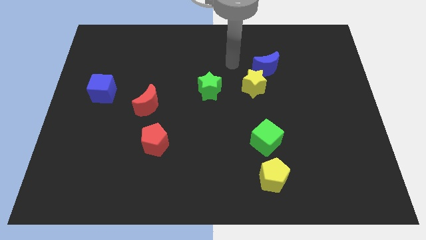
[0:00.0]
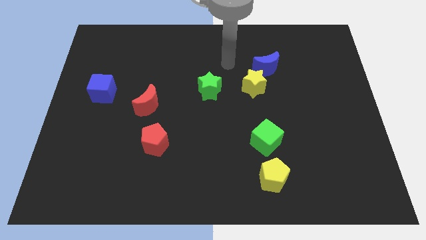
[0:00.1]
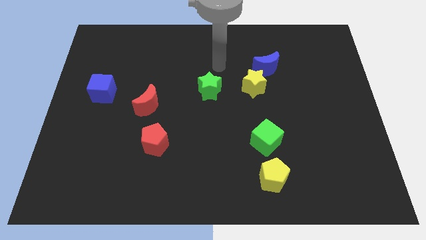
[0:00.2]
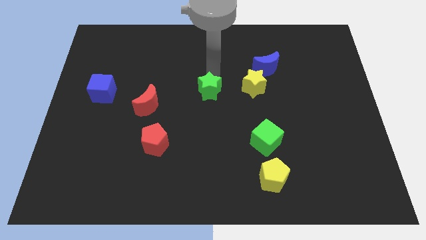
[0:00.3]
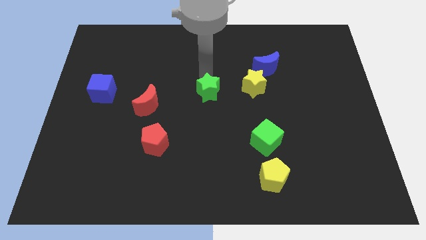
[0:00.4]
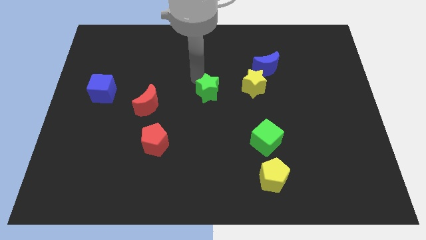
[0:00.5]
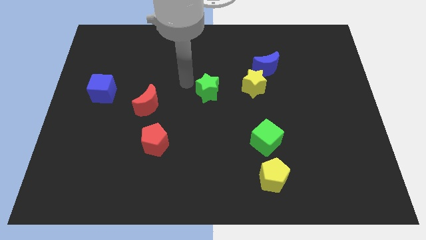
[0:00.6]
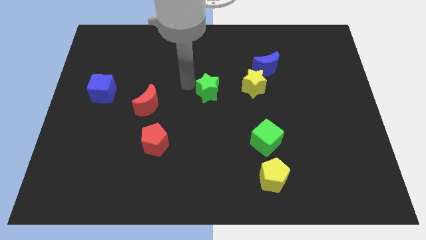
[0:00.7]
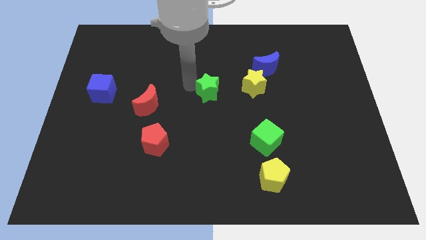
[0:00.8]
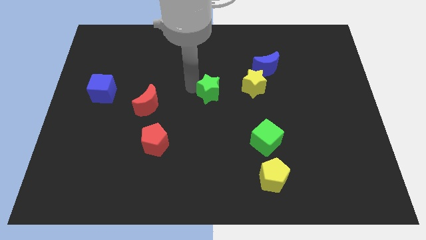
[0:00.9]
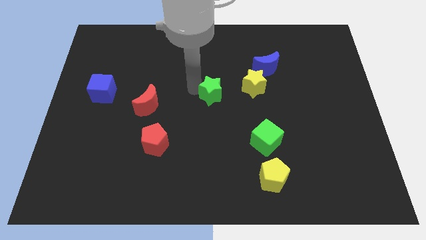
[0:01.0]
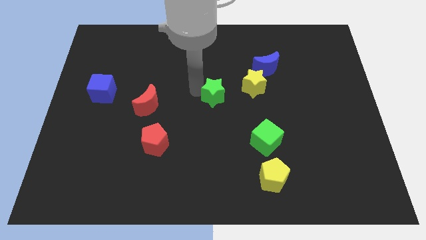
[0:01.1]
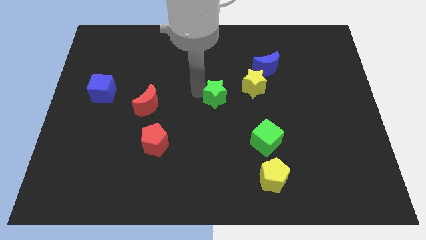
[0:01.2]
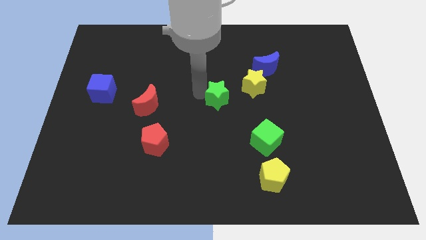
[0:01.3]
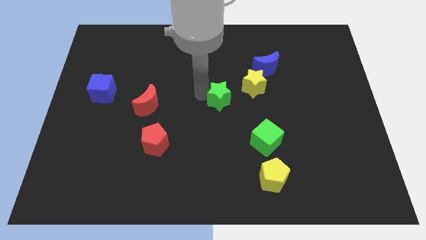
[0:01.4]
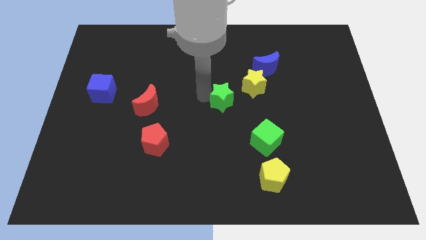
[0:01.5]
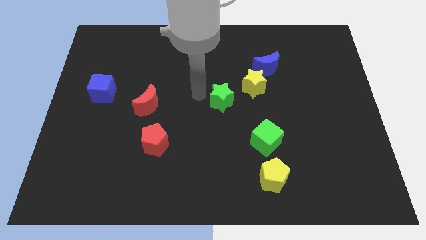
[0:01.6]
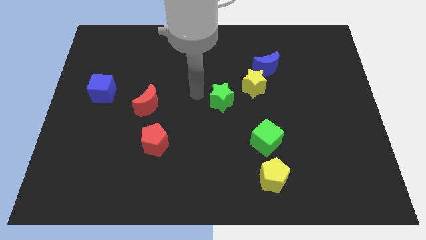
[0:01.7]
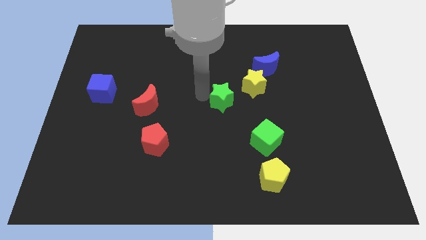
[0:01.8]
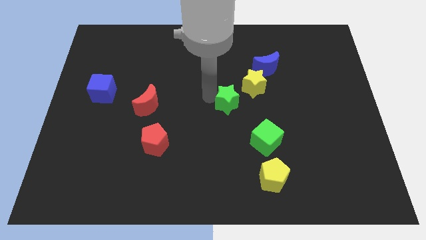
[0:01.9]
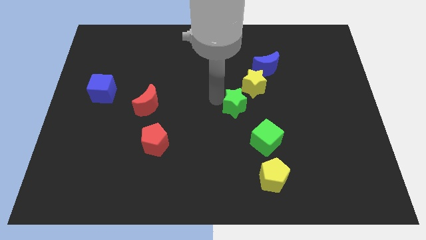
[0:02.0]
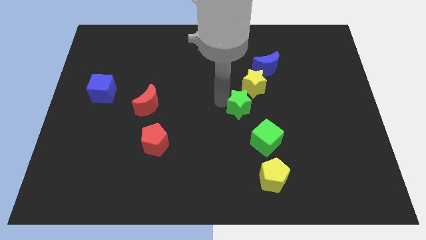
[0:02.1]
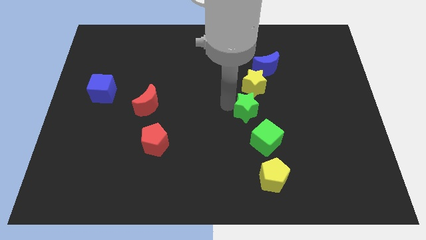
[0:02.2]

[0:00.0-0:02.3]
move the green star to the right slightly

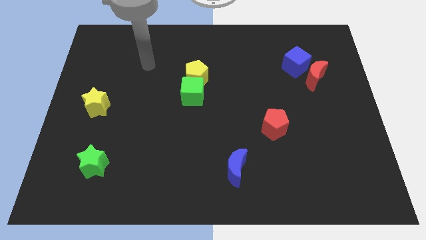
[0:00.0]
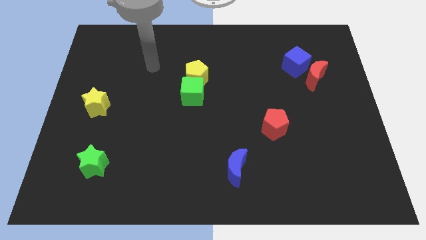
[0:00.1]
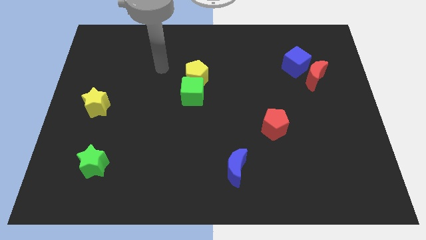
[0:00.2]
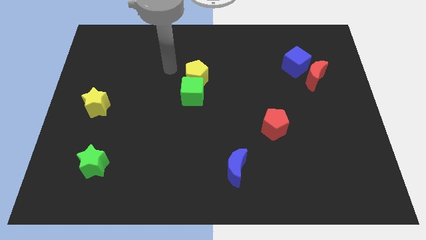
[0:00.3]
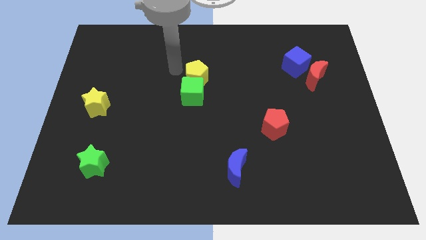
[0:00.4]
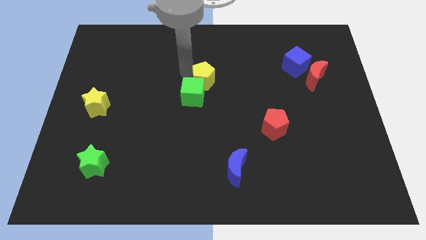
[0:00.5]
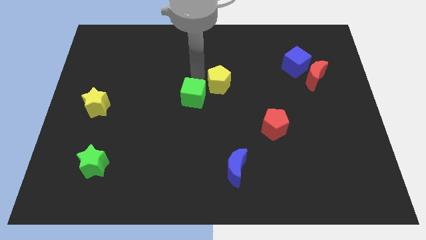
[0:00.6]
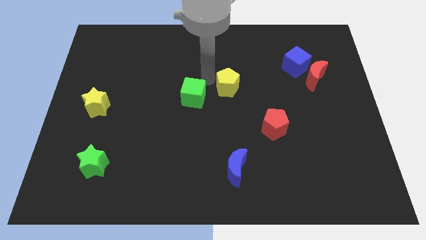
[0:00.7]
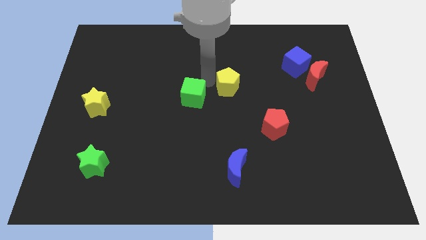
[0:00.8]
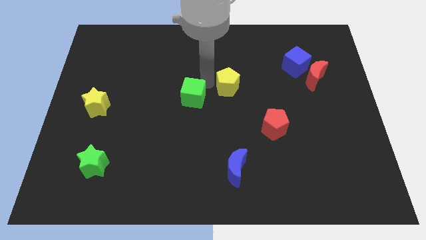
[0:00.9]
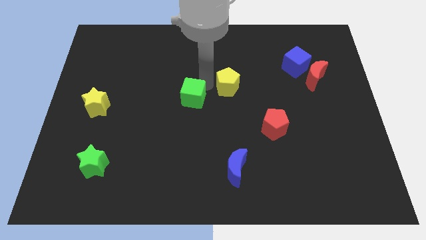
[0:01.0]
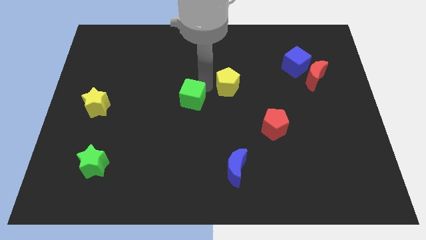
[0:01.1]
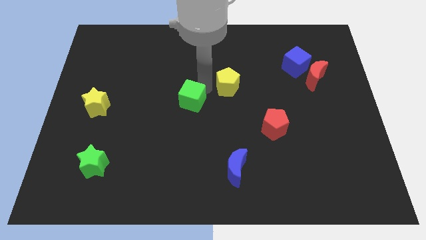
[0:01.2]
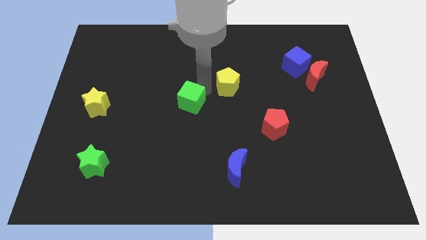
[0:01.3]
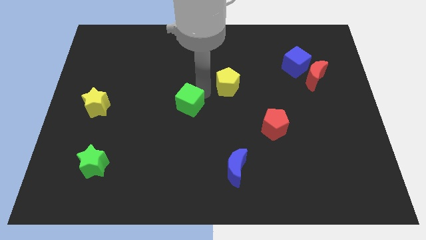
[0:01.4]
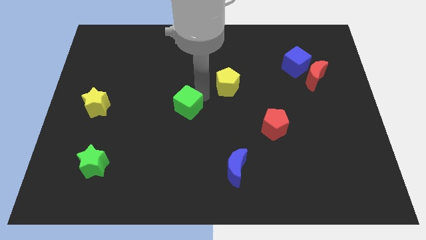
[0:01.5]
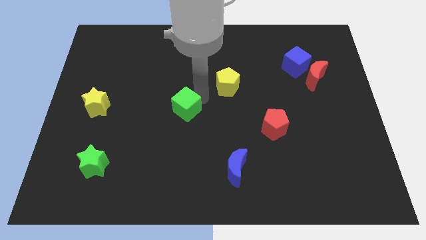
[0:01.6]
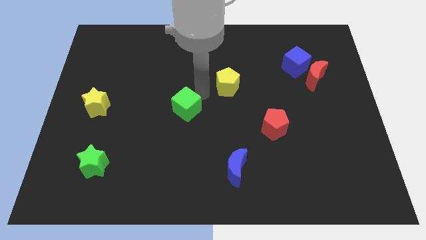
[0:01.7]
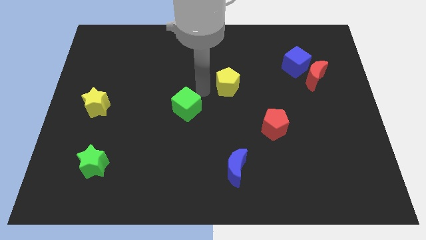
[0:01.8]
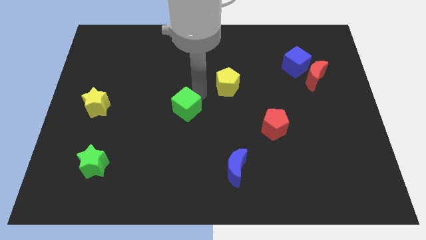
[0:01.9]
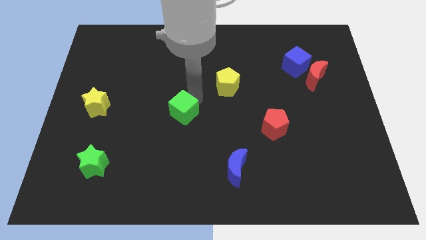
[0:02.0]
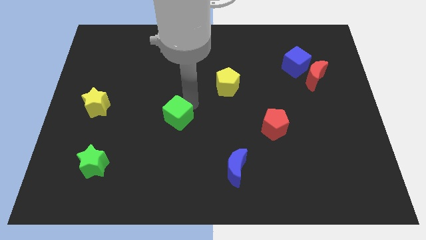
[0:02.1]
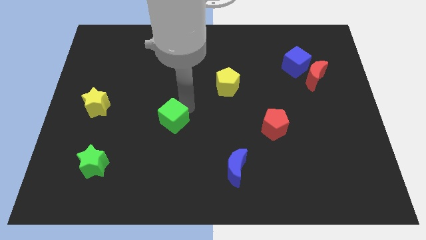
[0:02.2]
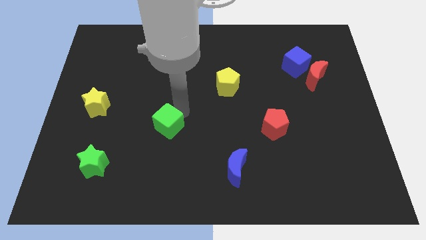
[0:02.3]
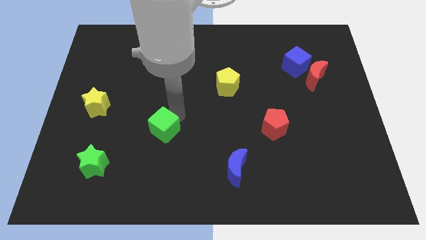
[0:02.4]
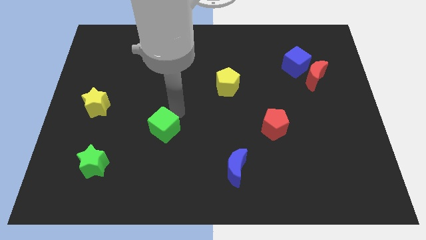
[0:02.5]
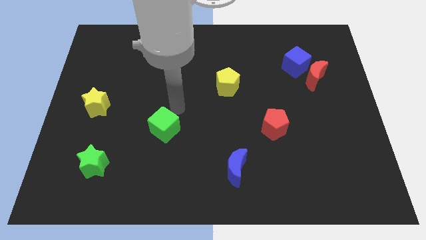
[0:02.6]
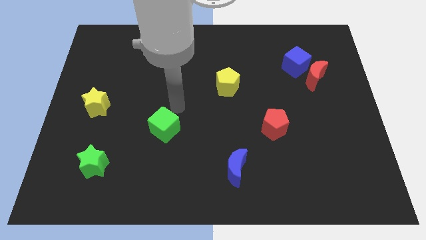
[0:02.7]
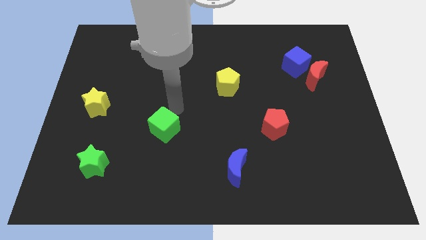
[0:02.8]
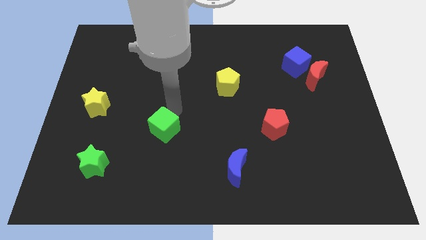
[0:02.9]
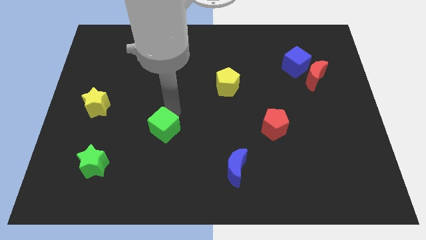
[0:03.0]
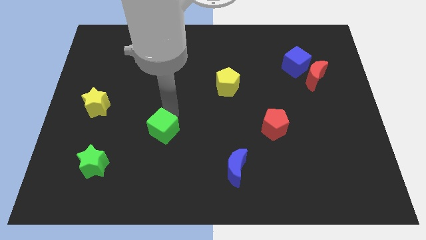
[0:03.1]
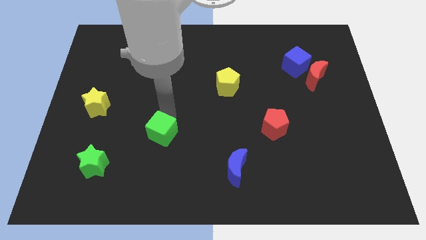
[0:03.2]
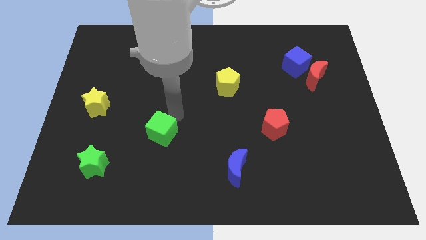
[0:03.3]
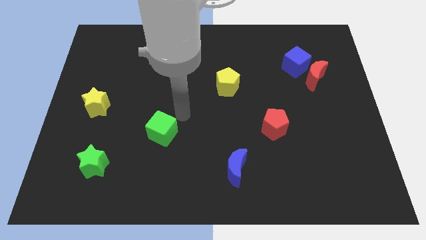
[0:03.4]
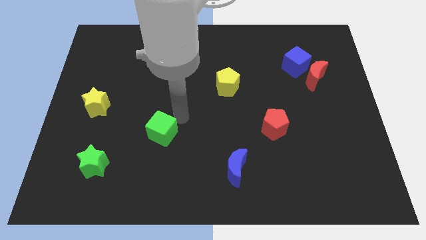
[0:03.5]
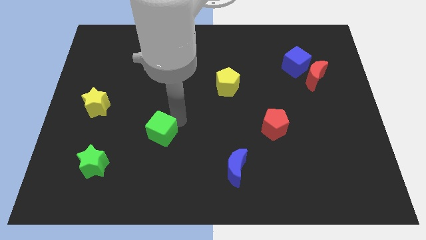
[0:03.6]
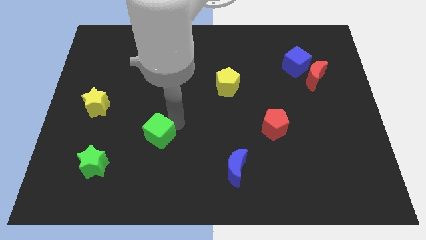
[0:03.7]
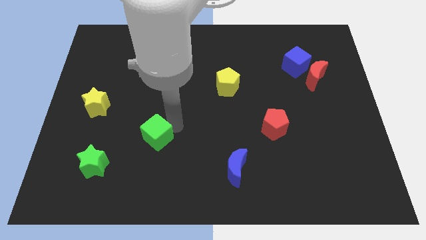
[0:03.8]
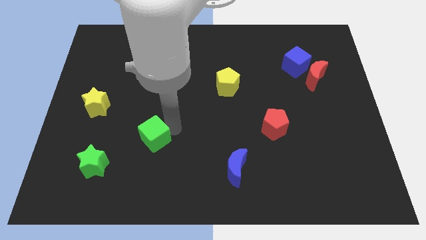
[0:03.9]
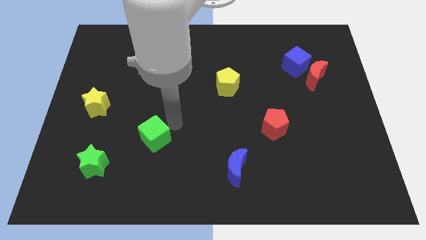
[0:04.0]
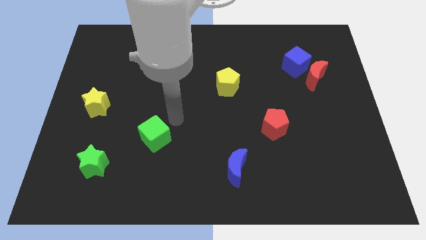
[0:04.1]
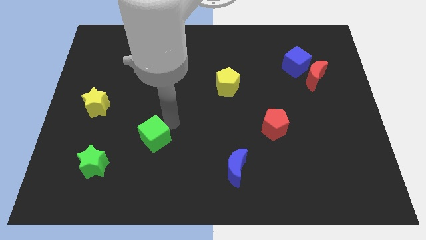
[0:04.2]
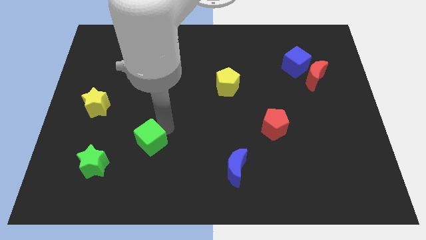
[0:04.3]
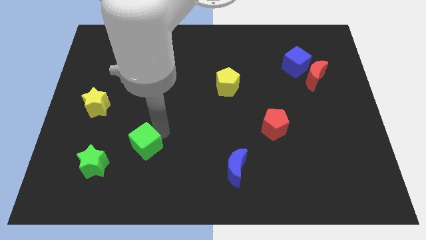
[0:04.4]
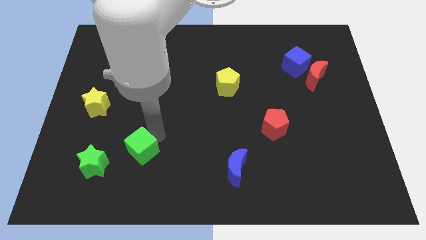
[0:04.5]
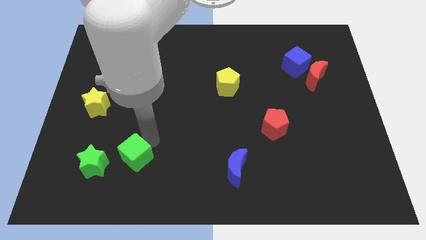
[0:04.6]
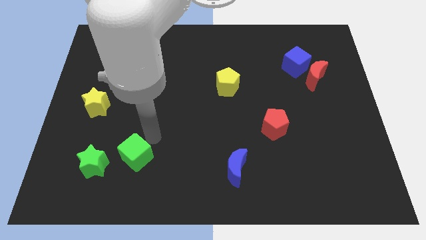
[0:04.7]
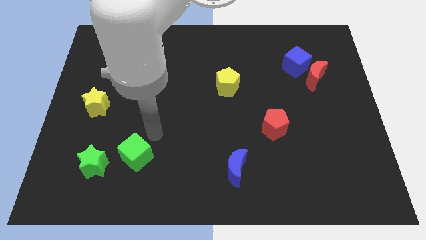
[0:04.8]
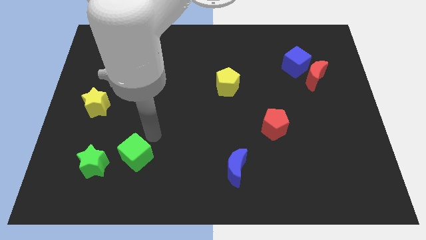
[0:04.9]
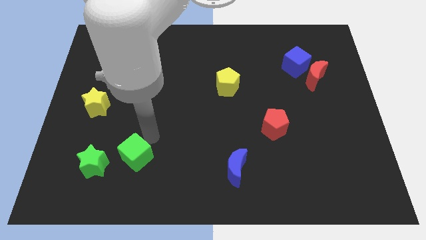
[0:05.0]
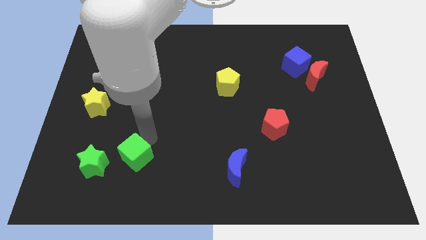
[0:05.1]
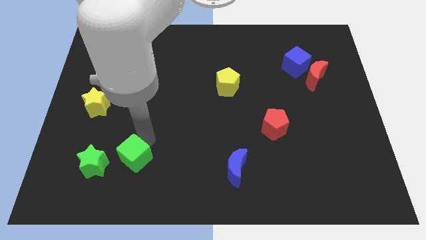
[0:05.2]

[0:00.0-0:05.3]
push the green cube downwards and then to the left

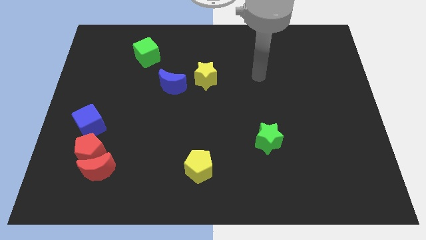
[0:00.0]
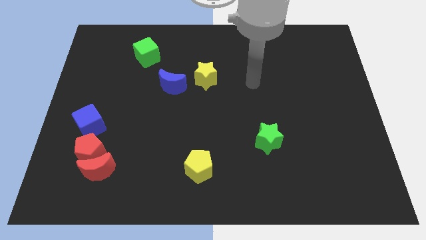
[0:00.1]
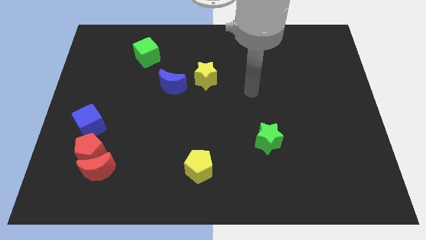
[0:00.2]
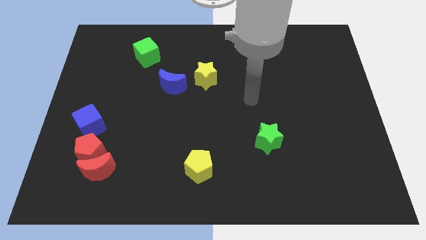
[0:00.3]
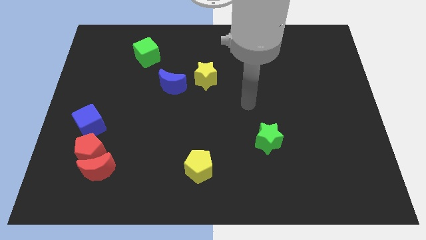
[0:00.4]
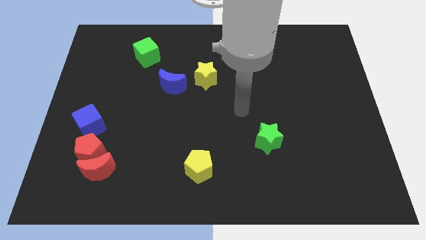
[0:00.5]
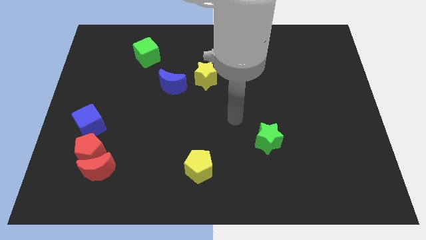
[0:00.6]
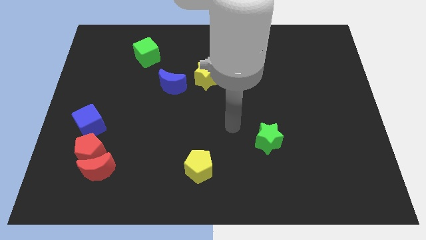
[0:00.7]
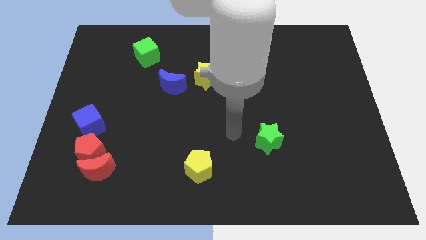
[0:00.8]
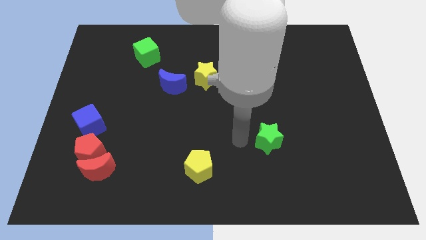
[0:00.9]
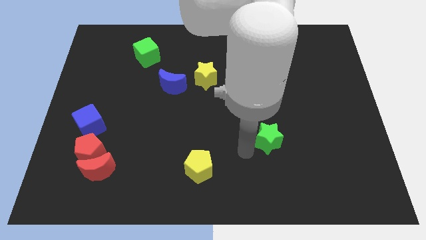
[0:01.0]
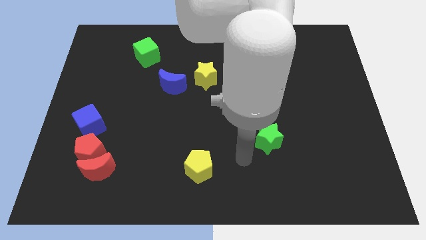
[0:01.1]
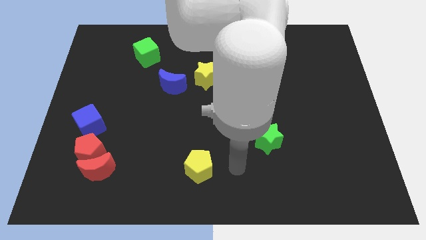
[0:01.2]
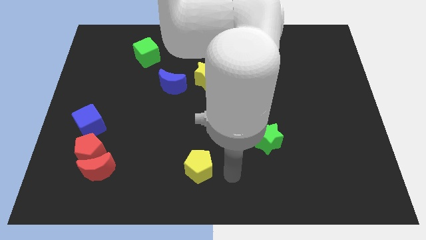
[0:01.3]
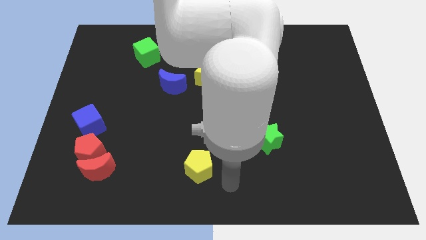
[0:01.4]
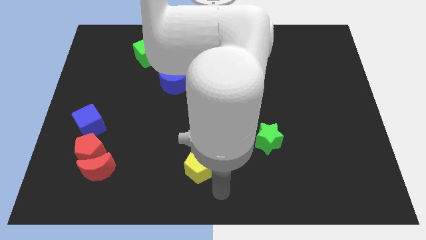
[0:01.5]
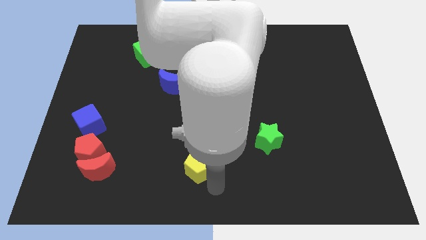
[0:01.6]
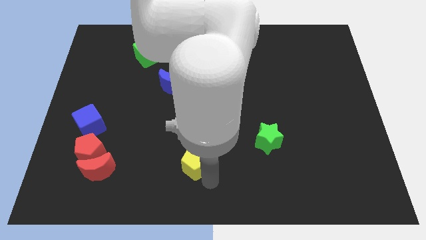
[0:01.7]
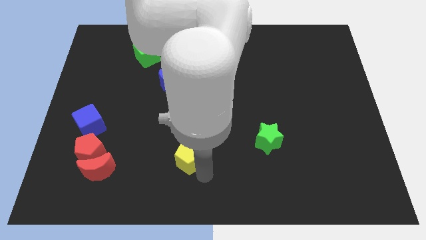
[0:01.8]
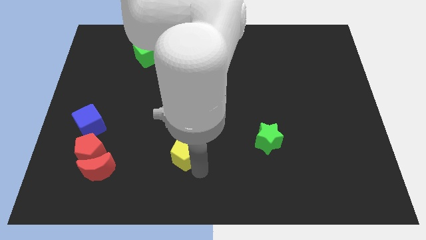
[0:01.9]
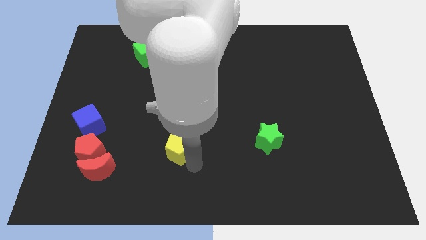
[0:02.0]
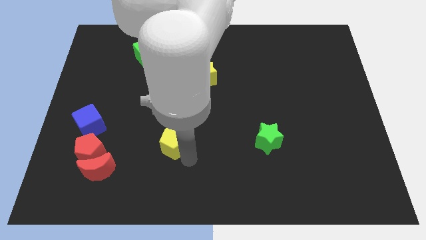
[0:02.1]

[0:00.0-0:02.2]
slightly move the yellow pentagon up and left diagonally
